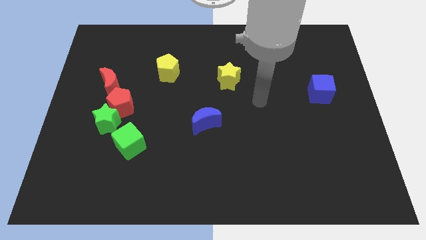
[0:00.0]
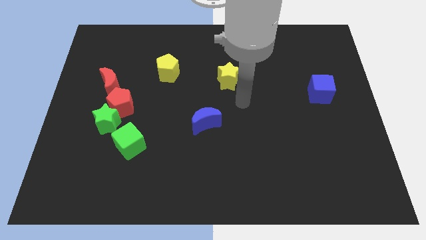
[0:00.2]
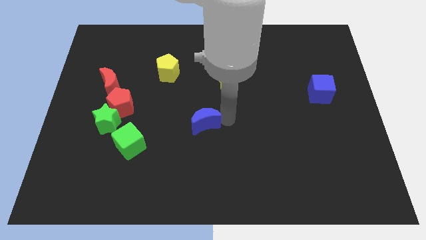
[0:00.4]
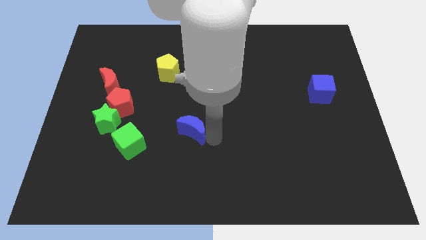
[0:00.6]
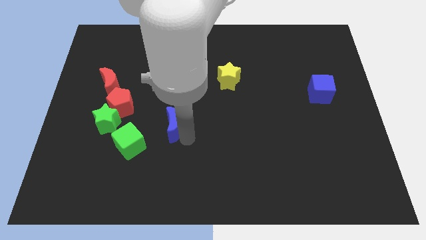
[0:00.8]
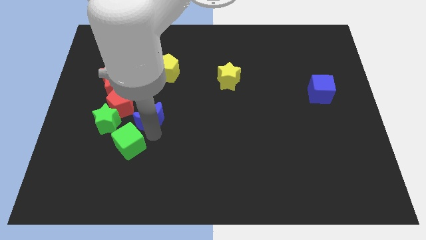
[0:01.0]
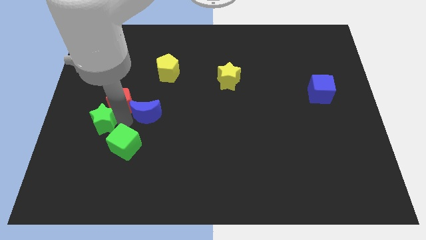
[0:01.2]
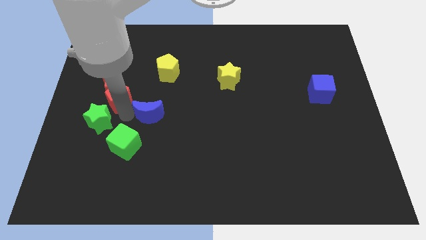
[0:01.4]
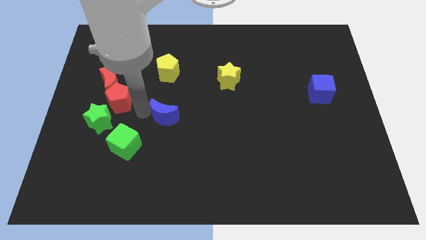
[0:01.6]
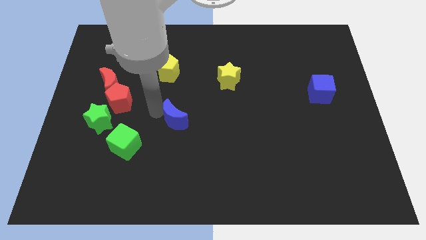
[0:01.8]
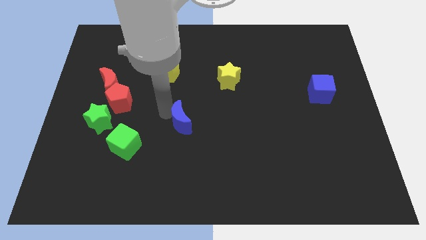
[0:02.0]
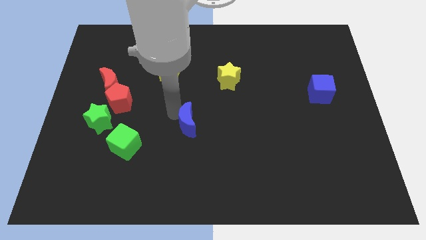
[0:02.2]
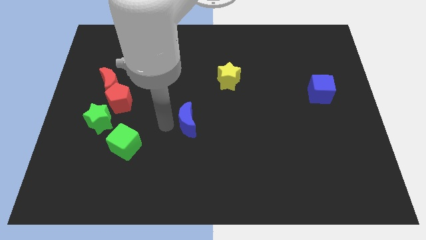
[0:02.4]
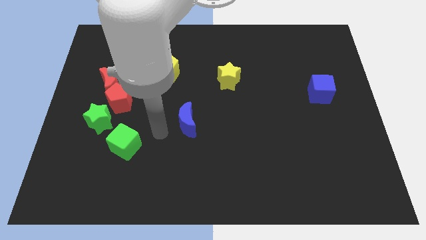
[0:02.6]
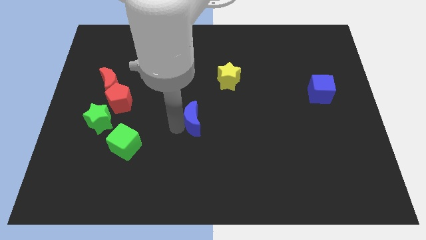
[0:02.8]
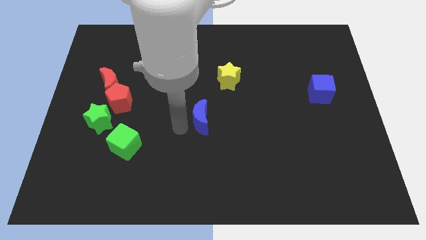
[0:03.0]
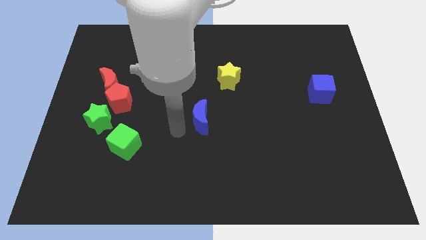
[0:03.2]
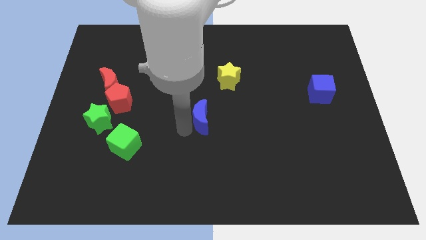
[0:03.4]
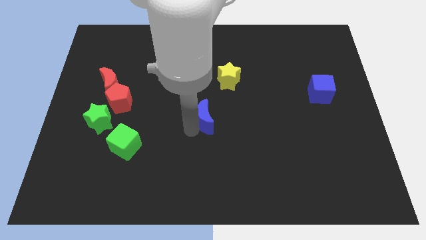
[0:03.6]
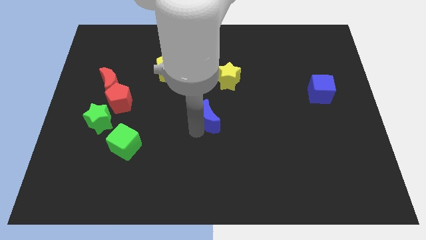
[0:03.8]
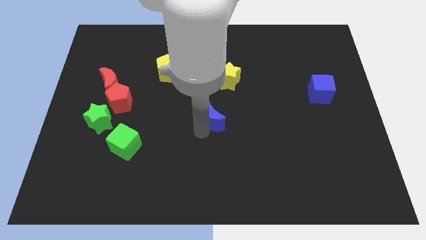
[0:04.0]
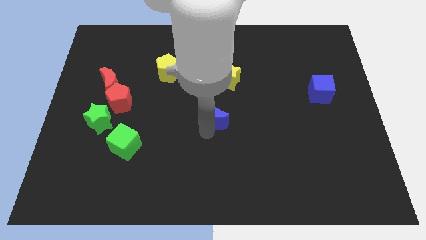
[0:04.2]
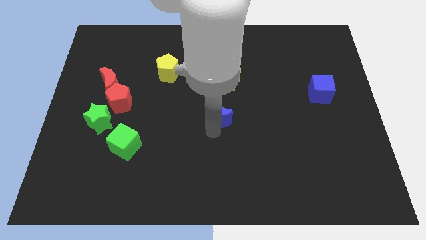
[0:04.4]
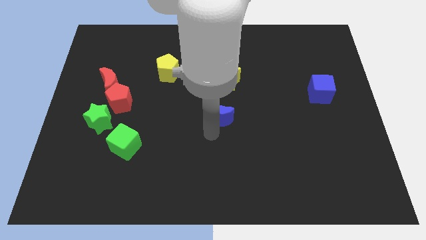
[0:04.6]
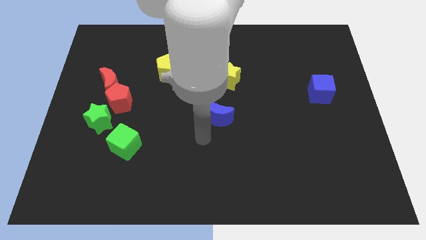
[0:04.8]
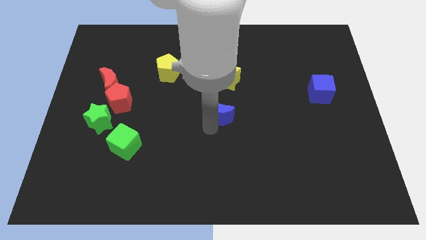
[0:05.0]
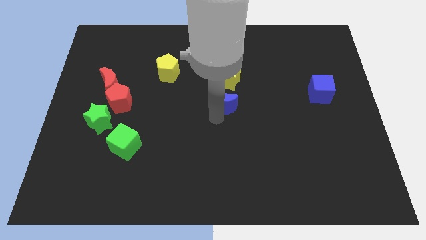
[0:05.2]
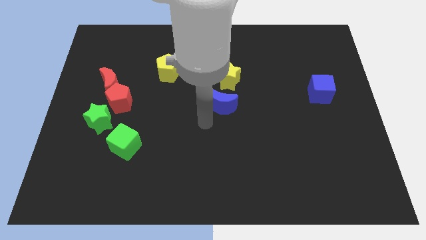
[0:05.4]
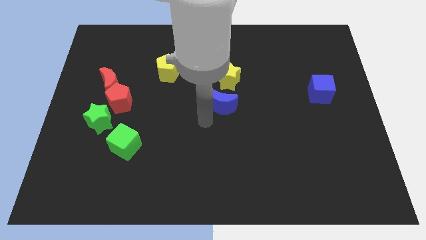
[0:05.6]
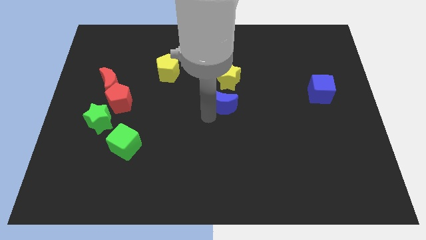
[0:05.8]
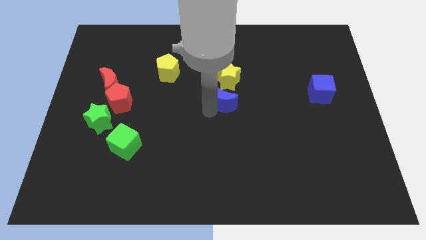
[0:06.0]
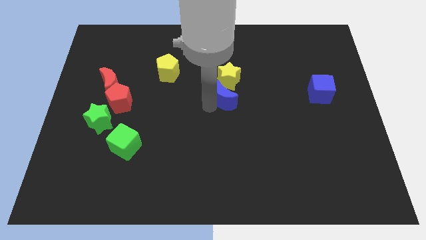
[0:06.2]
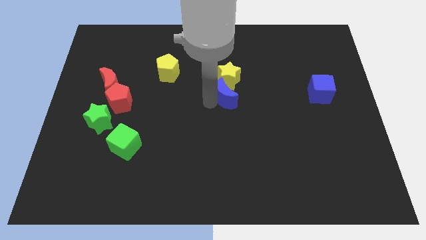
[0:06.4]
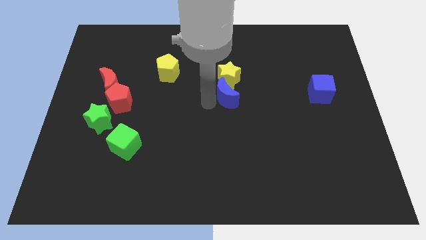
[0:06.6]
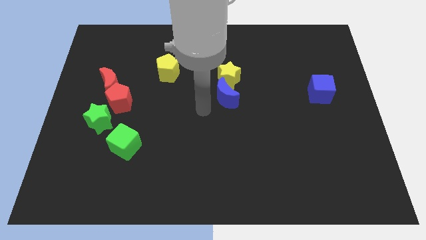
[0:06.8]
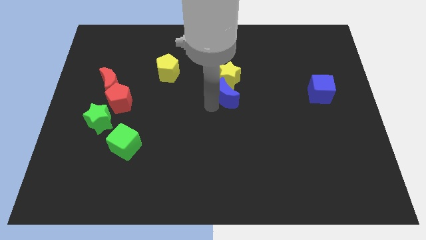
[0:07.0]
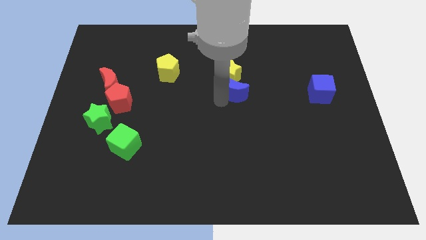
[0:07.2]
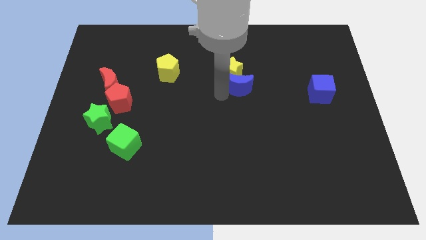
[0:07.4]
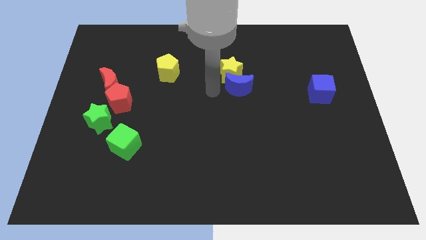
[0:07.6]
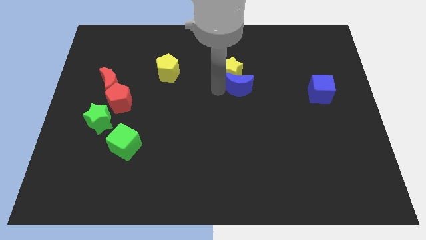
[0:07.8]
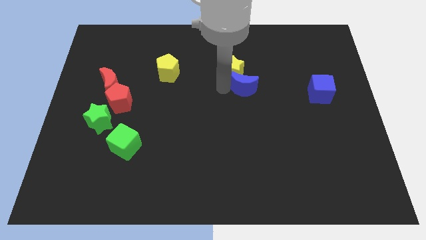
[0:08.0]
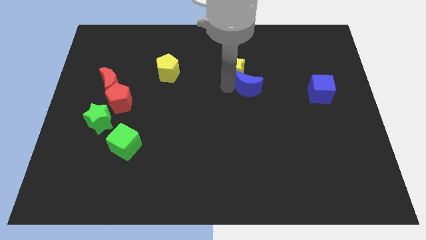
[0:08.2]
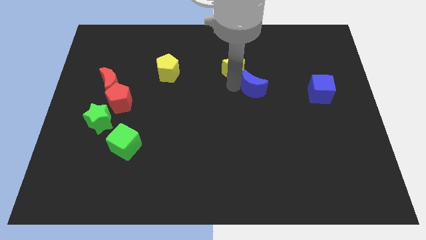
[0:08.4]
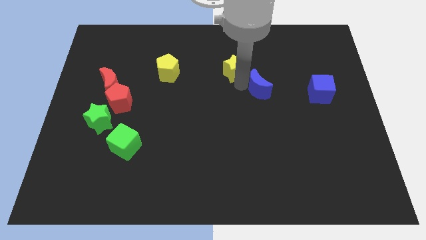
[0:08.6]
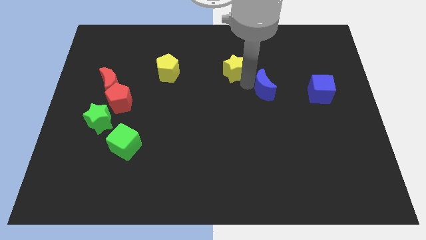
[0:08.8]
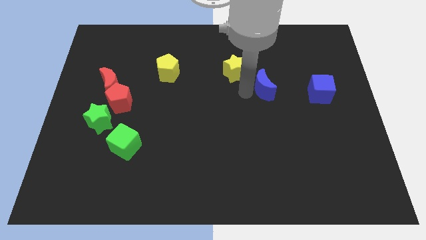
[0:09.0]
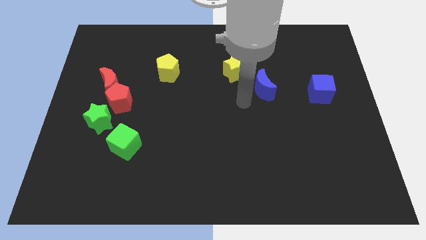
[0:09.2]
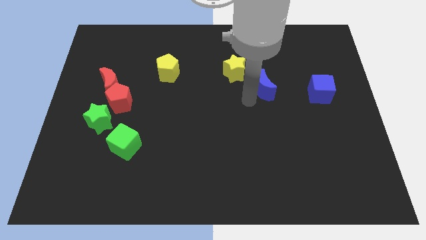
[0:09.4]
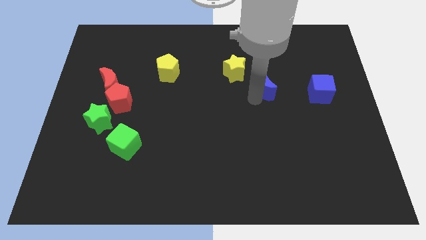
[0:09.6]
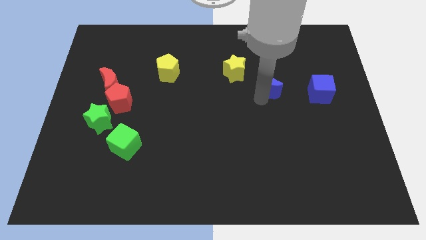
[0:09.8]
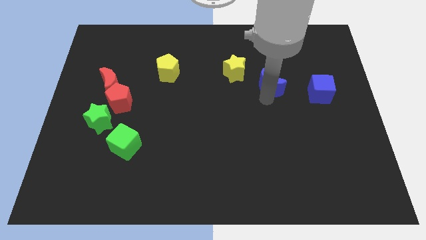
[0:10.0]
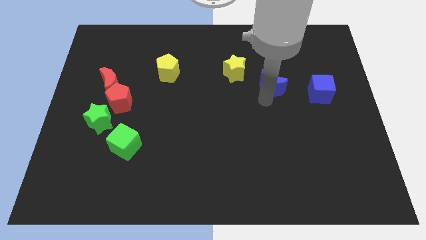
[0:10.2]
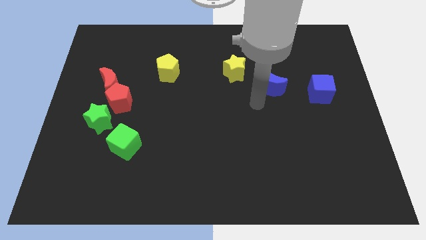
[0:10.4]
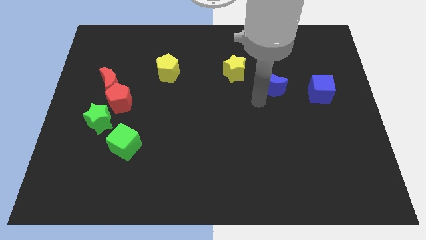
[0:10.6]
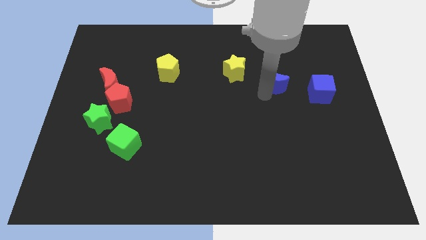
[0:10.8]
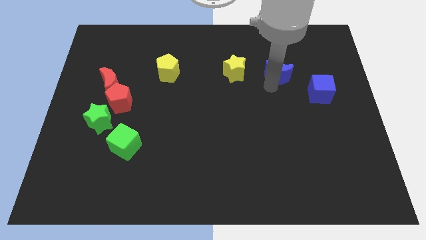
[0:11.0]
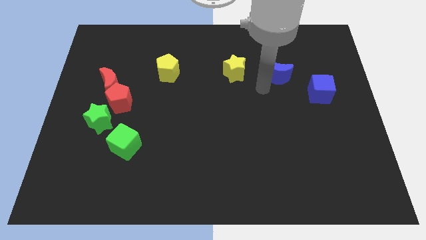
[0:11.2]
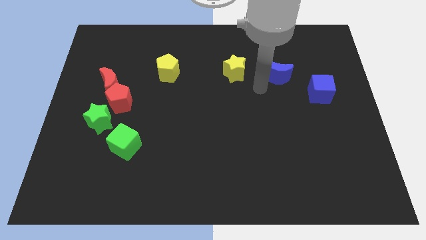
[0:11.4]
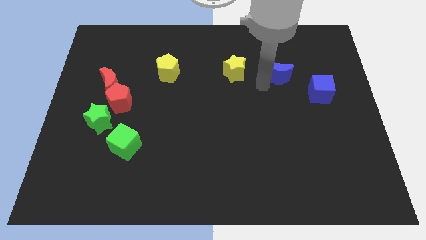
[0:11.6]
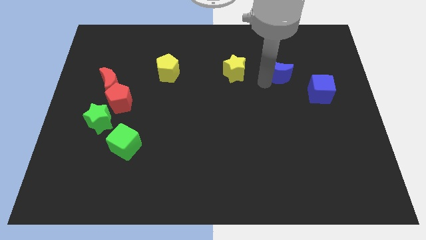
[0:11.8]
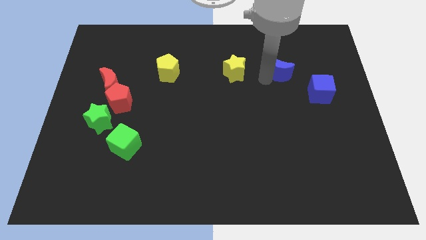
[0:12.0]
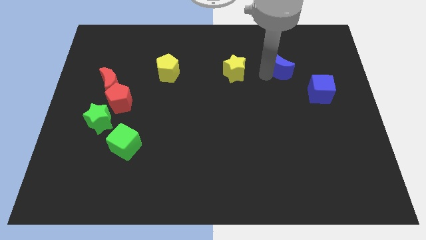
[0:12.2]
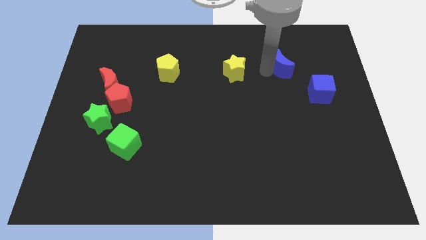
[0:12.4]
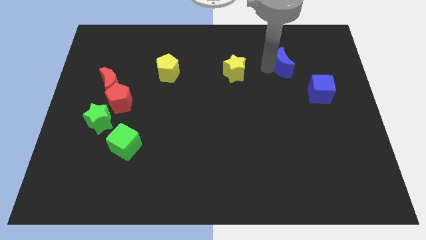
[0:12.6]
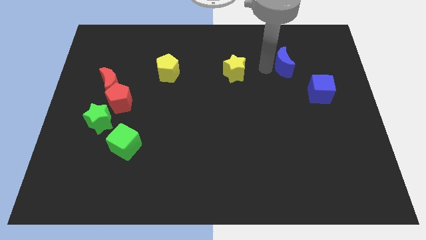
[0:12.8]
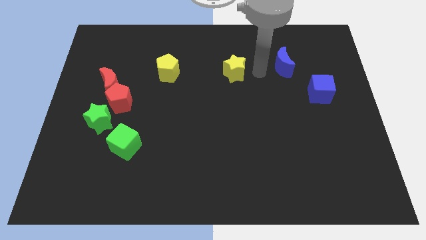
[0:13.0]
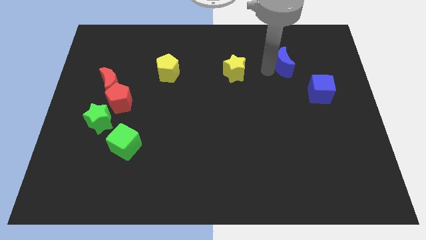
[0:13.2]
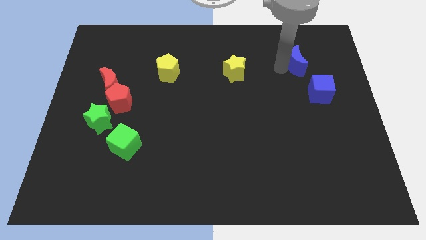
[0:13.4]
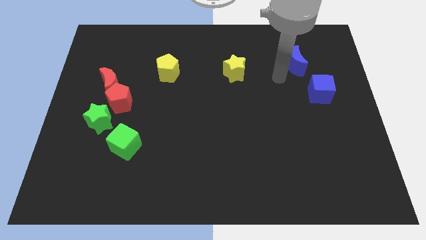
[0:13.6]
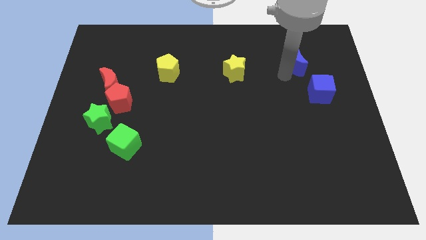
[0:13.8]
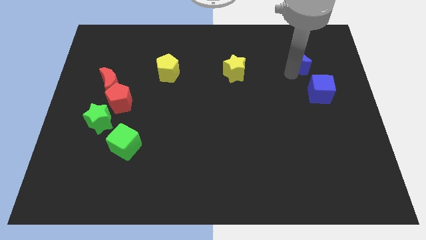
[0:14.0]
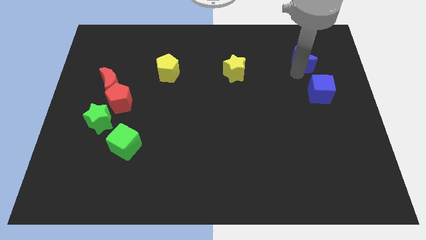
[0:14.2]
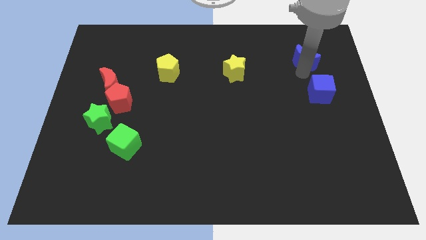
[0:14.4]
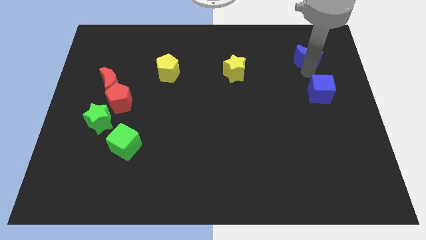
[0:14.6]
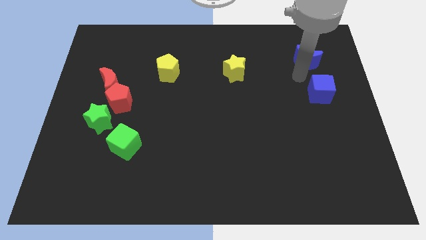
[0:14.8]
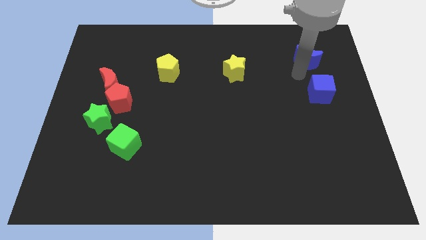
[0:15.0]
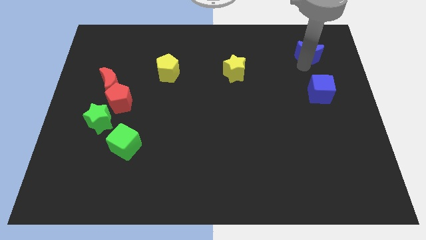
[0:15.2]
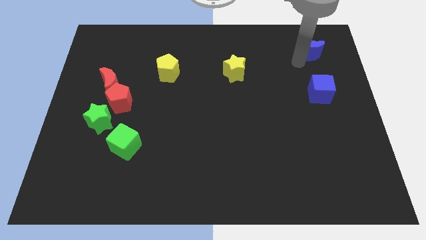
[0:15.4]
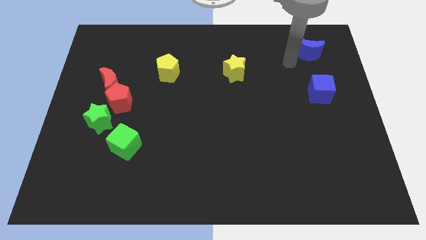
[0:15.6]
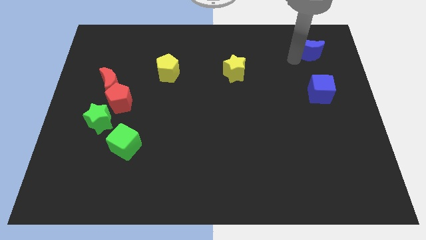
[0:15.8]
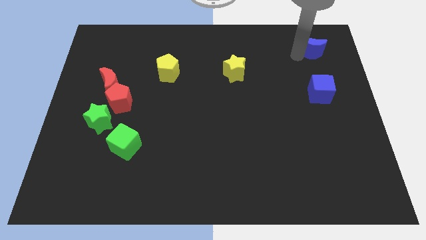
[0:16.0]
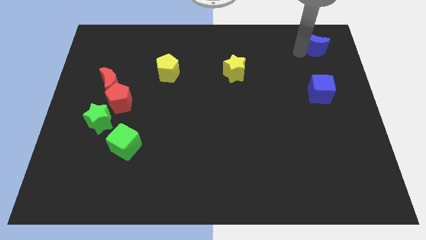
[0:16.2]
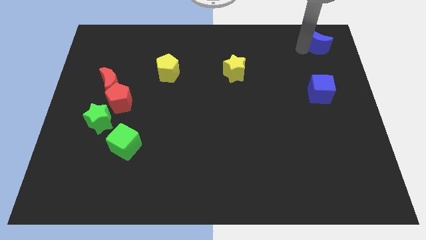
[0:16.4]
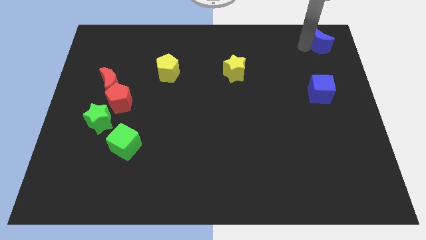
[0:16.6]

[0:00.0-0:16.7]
move the blue moon to the top right corner
